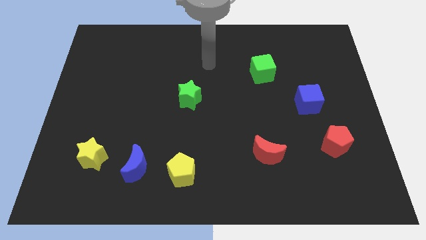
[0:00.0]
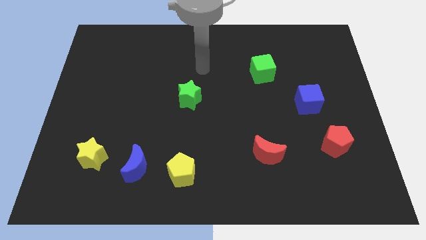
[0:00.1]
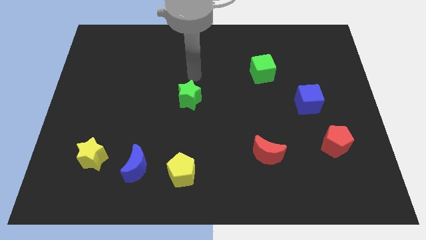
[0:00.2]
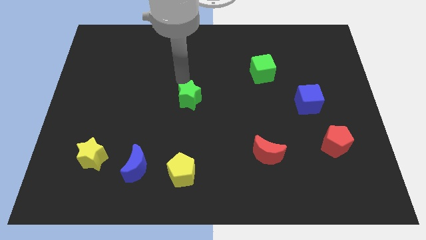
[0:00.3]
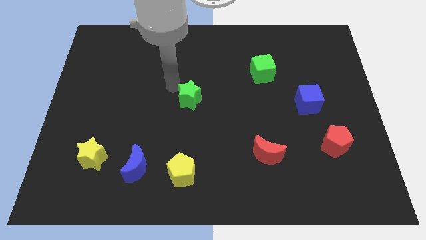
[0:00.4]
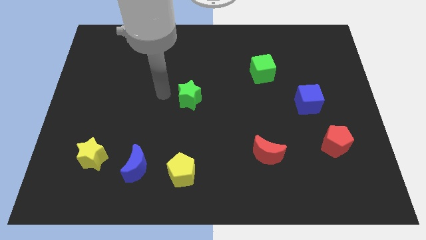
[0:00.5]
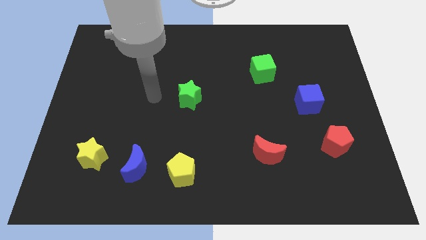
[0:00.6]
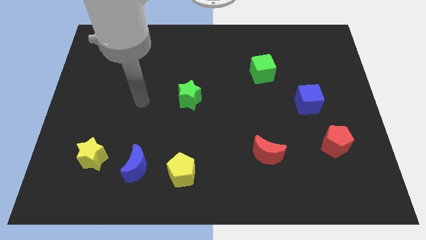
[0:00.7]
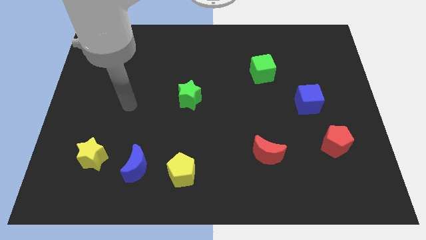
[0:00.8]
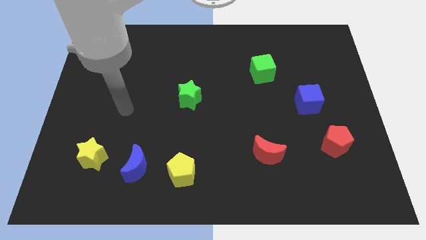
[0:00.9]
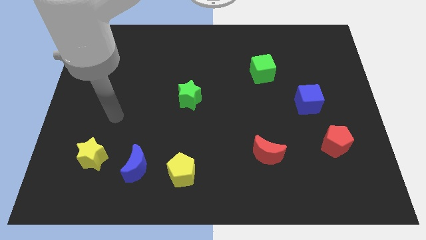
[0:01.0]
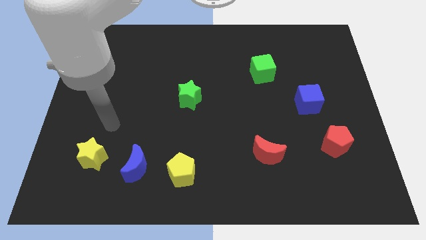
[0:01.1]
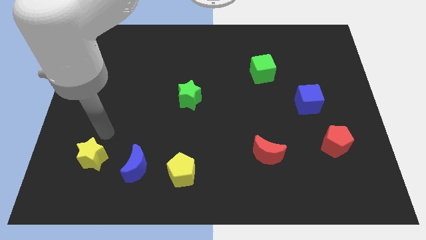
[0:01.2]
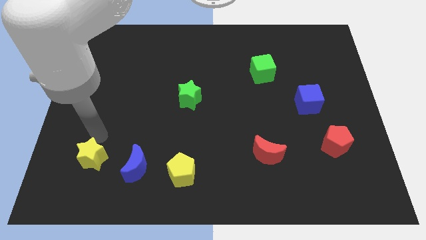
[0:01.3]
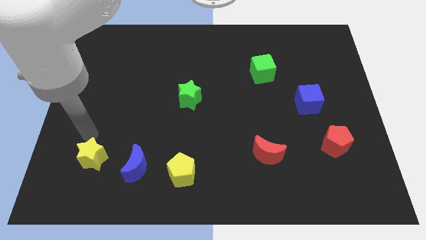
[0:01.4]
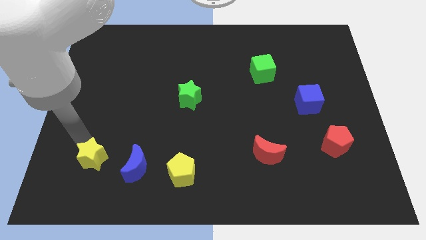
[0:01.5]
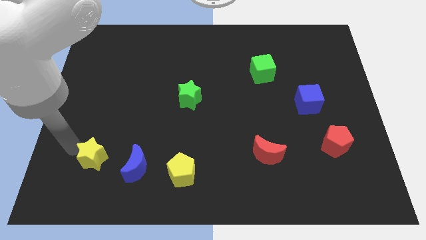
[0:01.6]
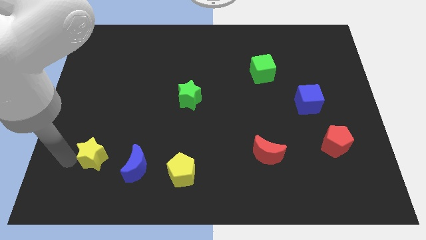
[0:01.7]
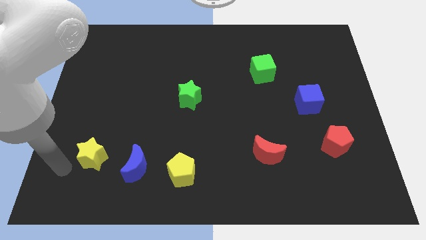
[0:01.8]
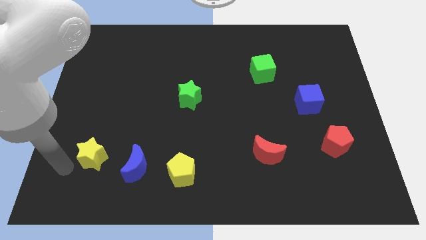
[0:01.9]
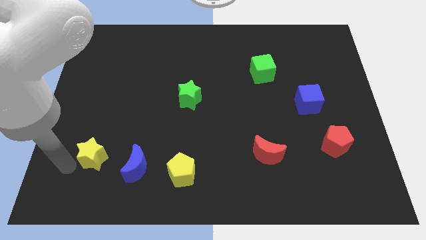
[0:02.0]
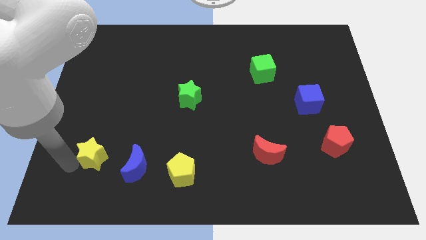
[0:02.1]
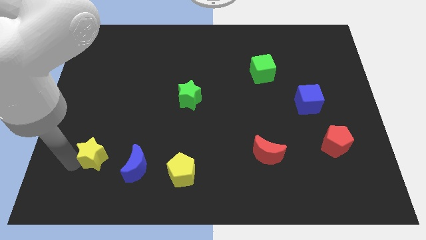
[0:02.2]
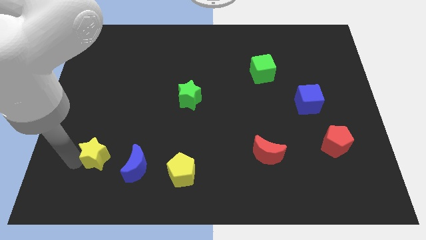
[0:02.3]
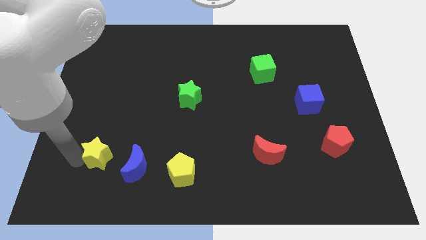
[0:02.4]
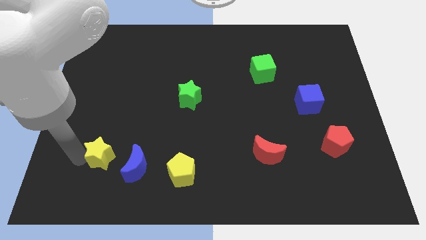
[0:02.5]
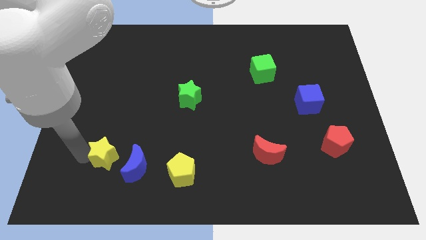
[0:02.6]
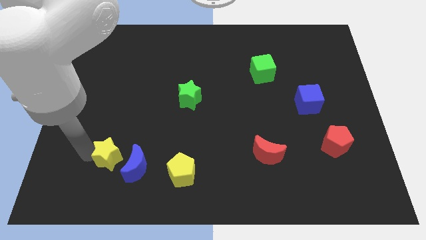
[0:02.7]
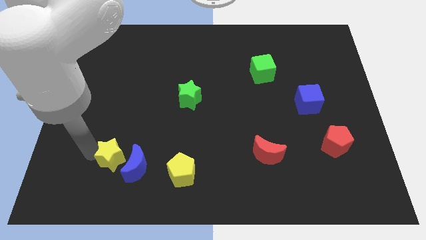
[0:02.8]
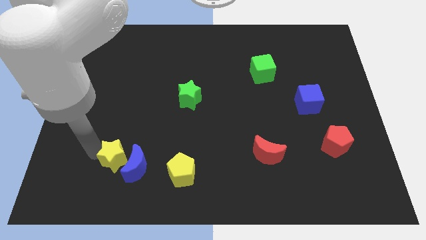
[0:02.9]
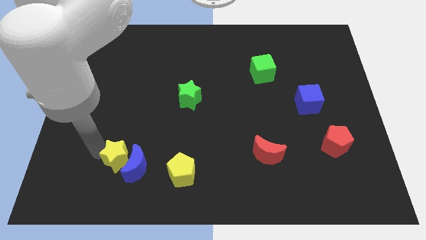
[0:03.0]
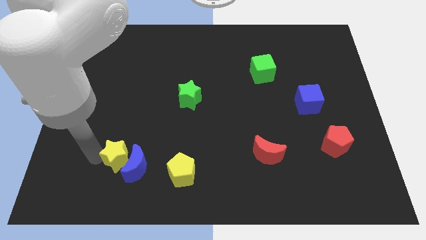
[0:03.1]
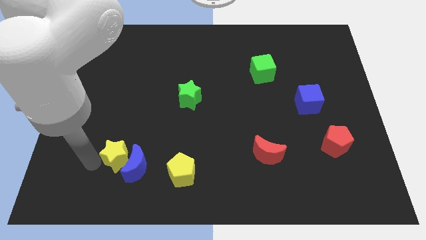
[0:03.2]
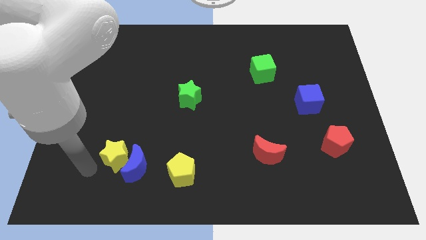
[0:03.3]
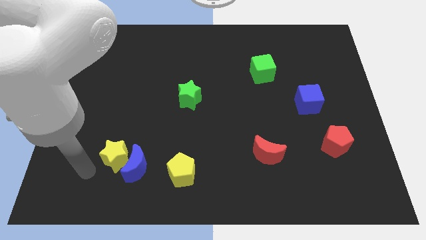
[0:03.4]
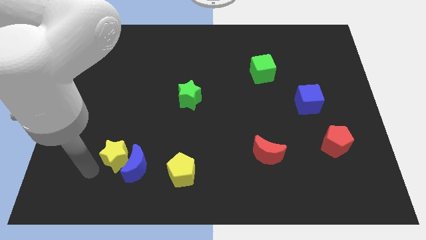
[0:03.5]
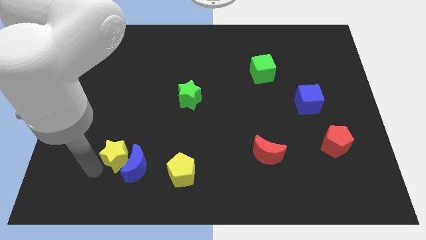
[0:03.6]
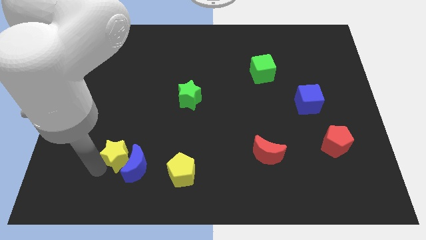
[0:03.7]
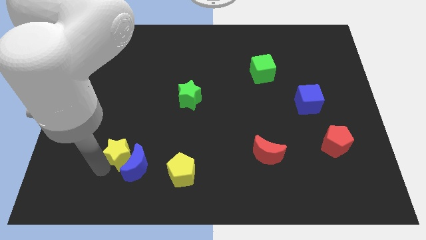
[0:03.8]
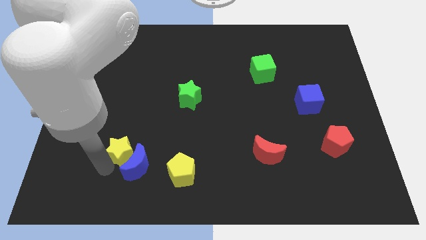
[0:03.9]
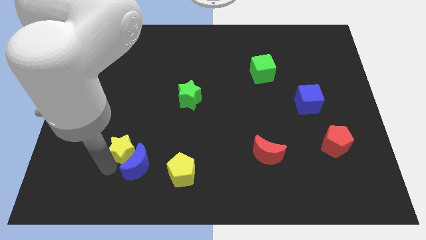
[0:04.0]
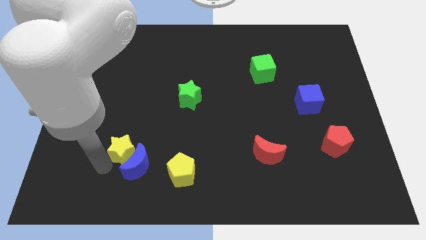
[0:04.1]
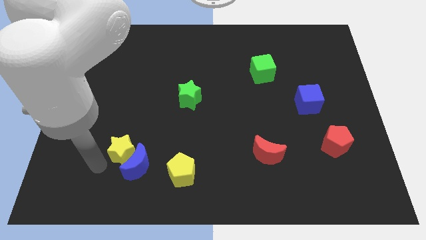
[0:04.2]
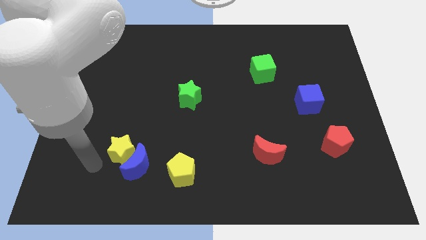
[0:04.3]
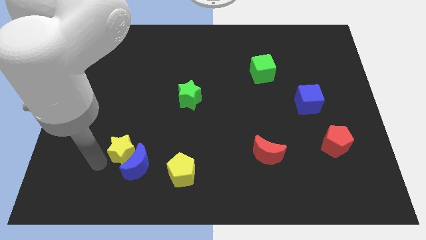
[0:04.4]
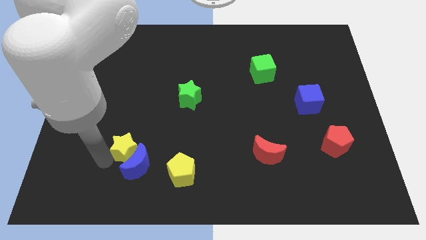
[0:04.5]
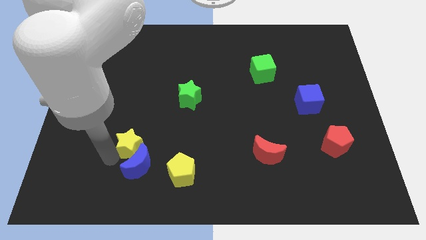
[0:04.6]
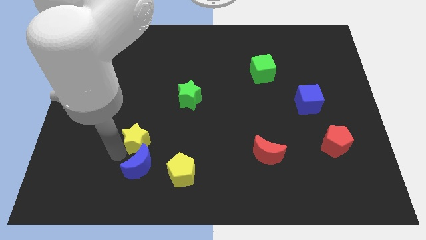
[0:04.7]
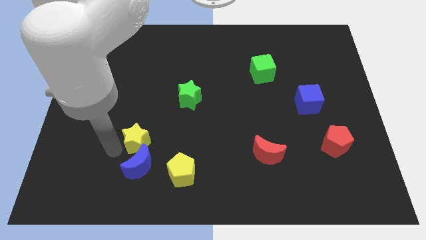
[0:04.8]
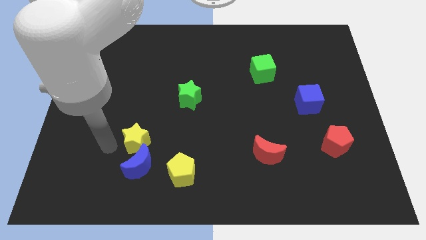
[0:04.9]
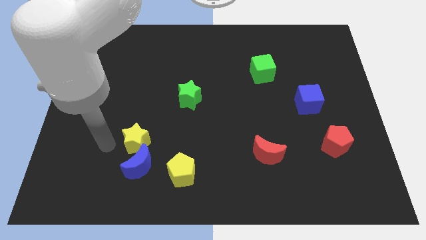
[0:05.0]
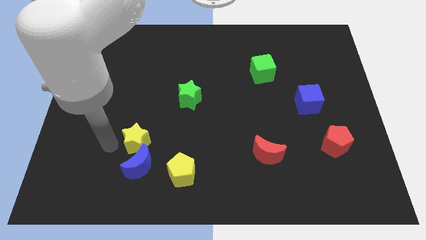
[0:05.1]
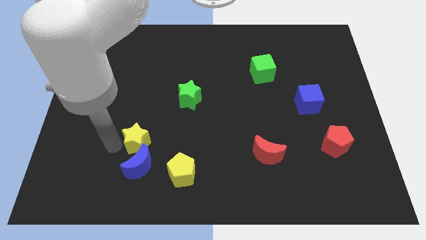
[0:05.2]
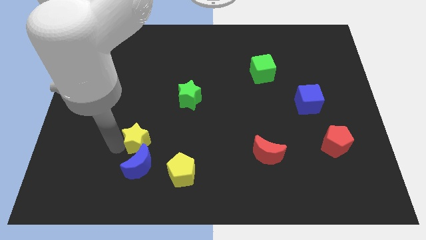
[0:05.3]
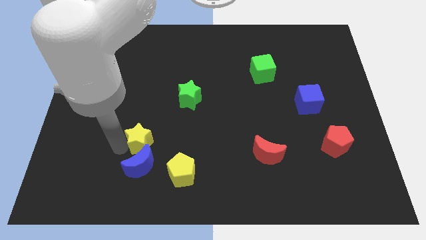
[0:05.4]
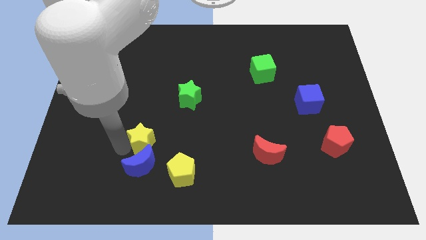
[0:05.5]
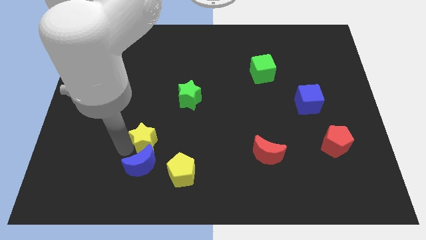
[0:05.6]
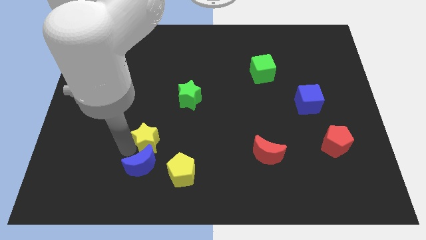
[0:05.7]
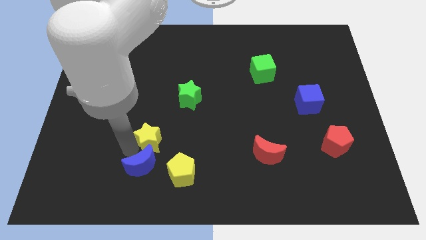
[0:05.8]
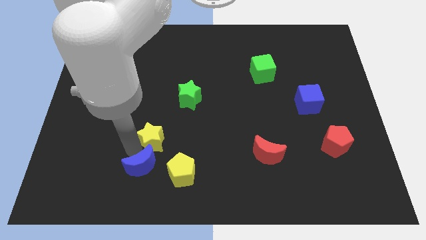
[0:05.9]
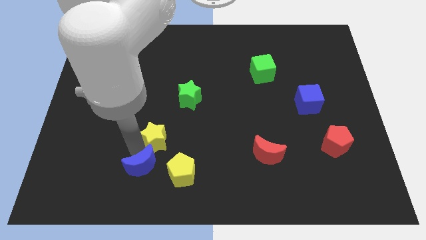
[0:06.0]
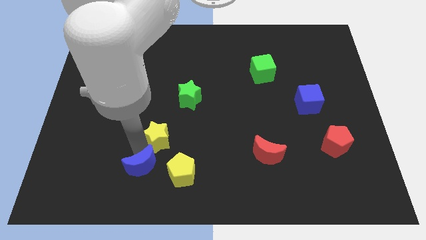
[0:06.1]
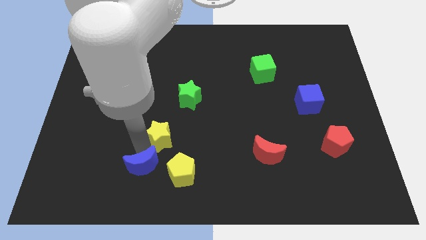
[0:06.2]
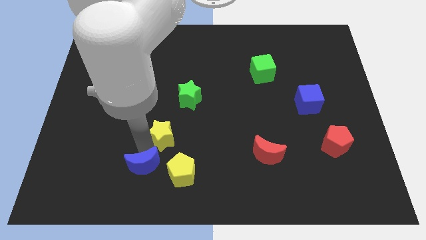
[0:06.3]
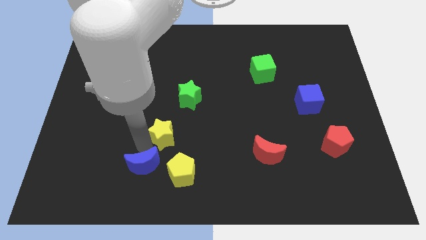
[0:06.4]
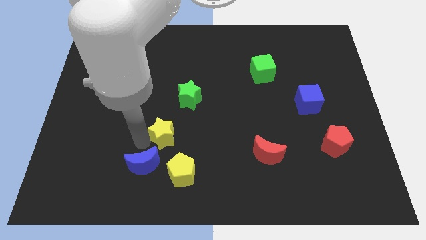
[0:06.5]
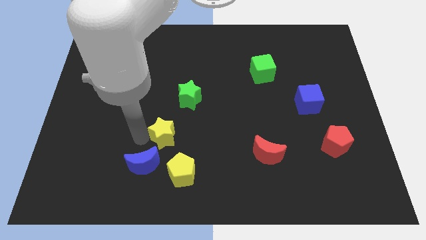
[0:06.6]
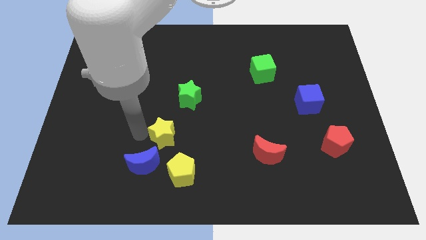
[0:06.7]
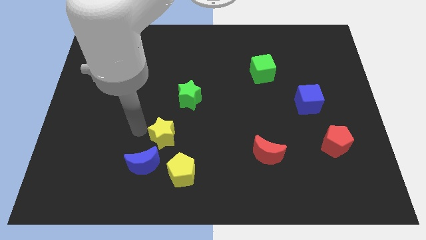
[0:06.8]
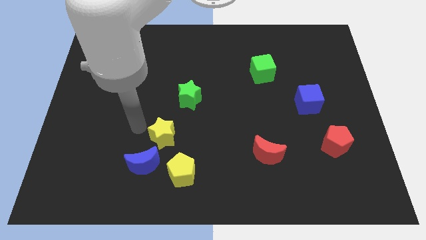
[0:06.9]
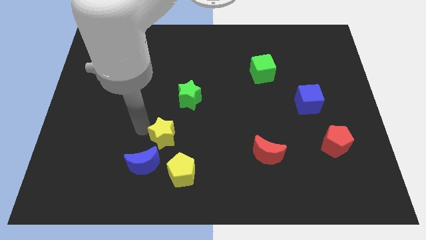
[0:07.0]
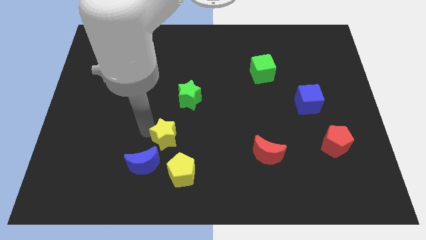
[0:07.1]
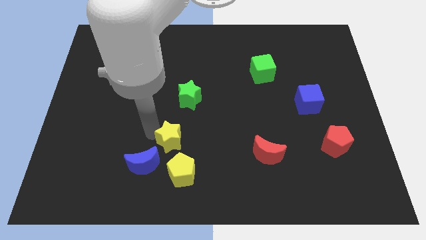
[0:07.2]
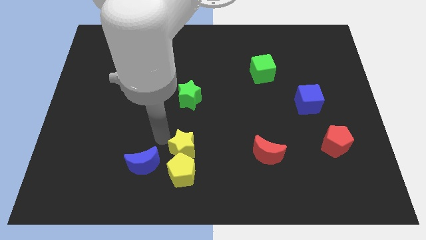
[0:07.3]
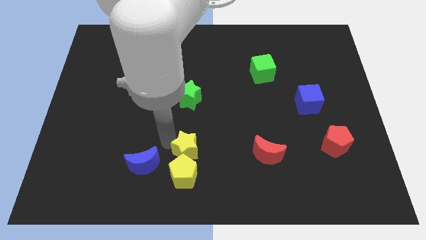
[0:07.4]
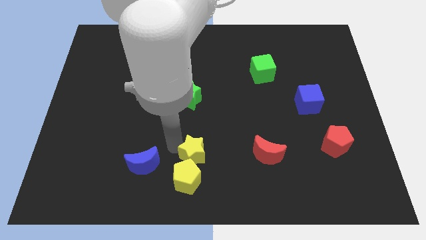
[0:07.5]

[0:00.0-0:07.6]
slide the yellow star to the left of the red moon
